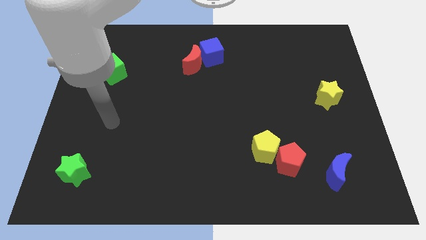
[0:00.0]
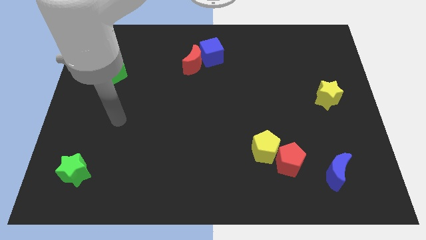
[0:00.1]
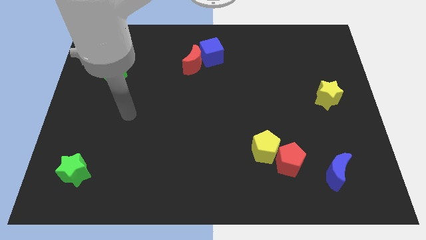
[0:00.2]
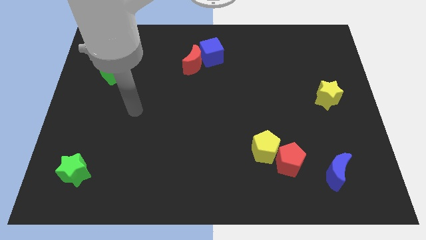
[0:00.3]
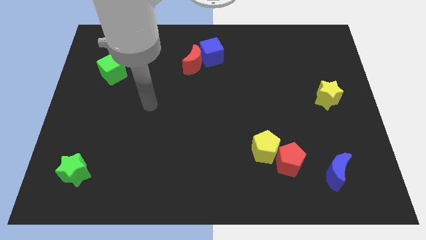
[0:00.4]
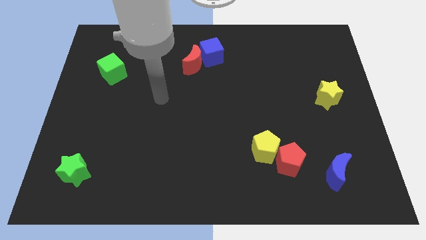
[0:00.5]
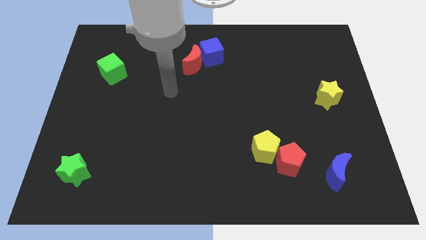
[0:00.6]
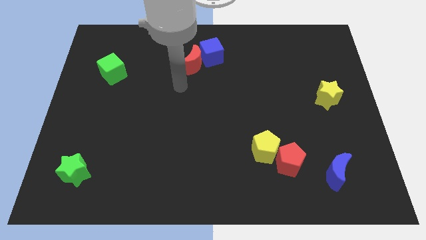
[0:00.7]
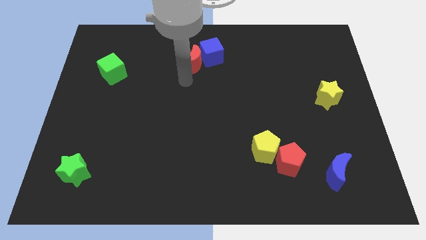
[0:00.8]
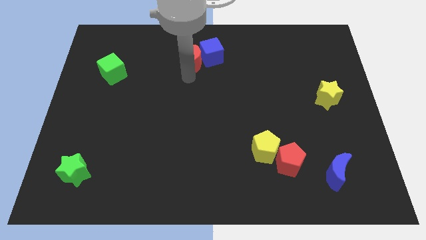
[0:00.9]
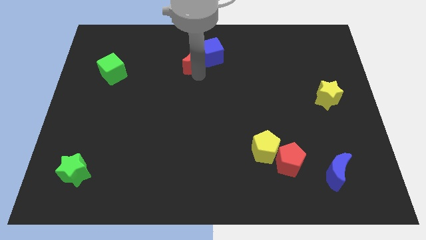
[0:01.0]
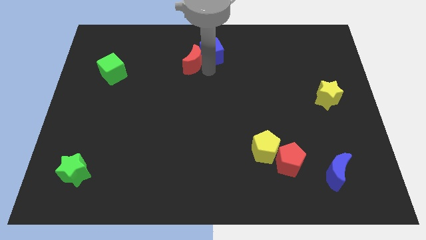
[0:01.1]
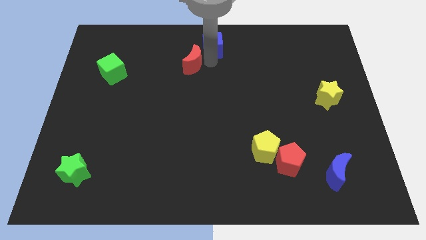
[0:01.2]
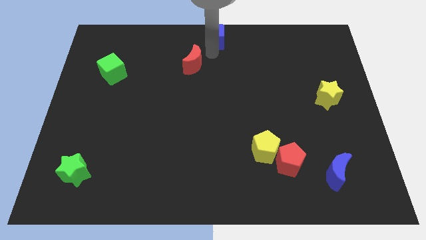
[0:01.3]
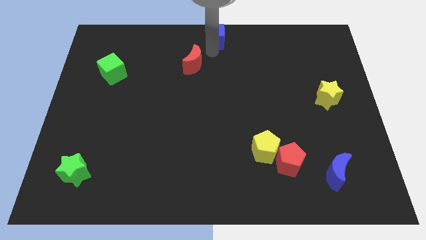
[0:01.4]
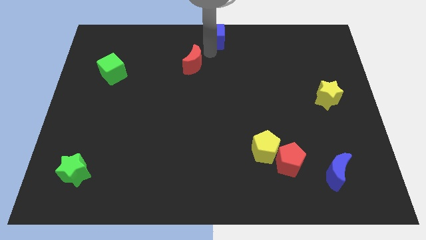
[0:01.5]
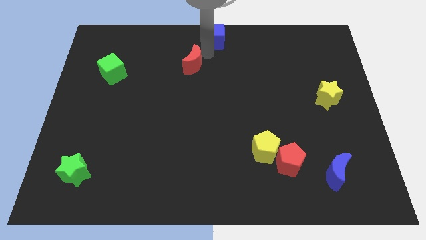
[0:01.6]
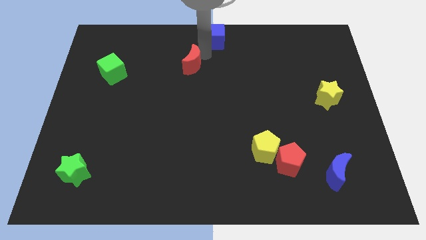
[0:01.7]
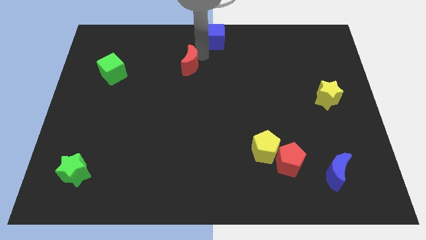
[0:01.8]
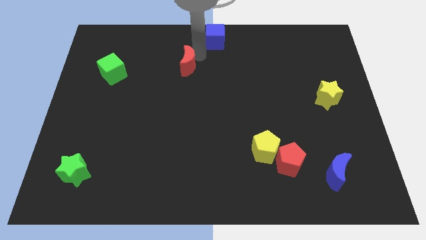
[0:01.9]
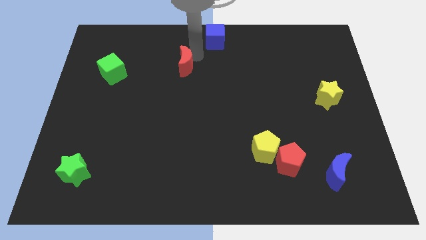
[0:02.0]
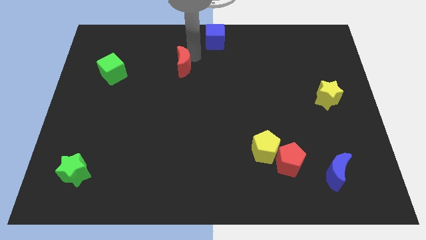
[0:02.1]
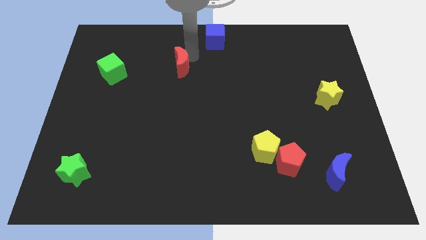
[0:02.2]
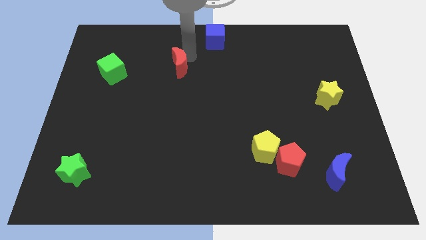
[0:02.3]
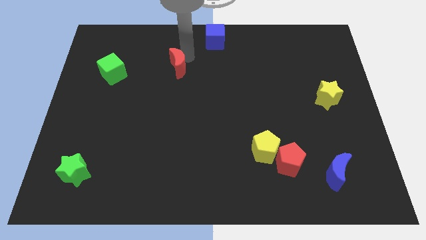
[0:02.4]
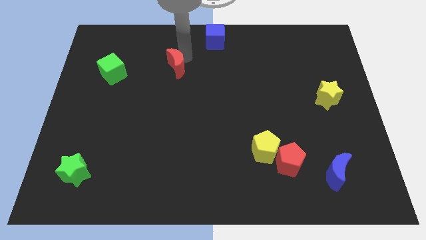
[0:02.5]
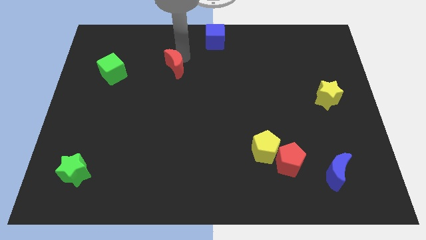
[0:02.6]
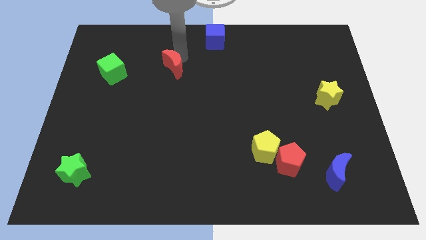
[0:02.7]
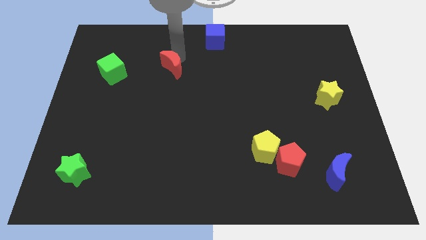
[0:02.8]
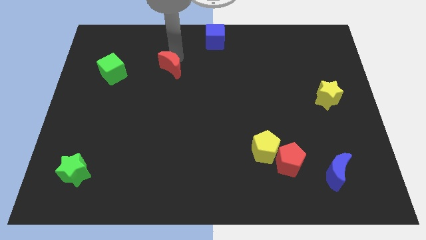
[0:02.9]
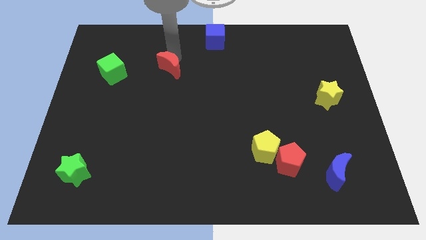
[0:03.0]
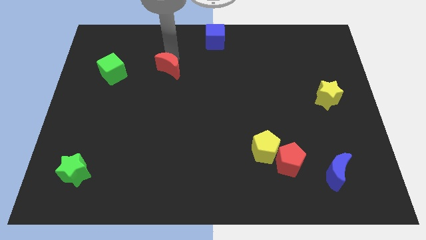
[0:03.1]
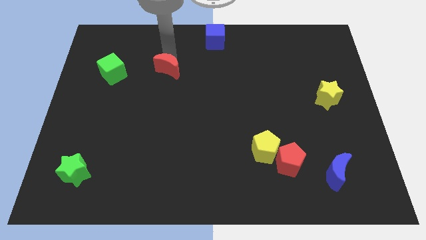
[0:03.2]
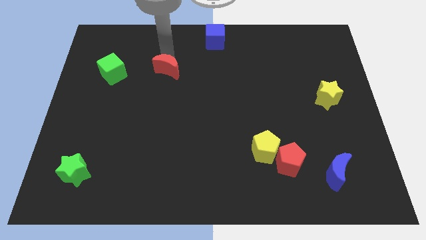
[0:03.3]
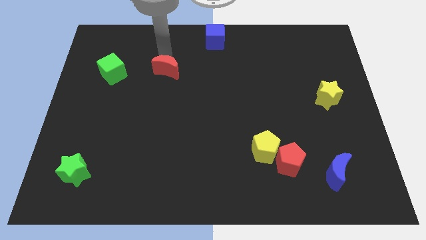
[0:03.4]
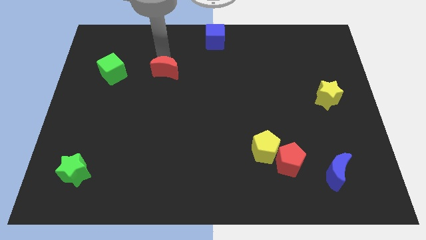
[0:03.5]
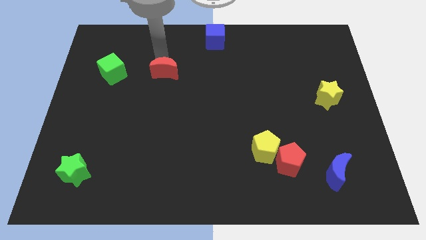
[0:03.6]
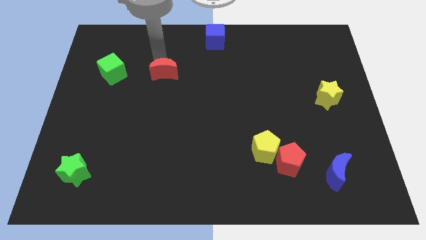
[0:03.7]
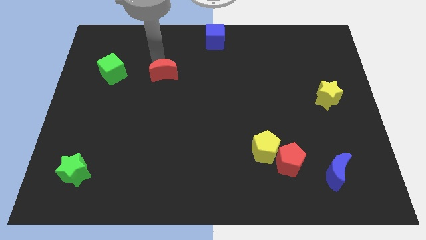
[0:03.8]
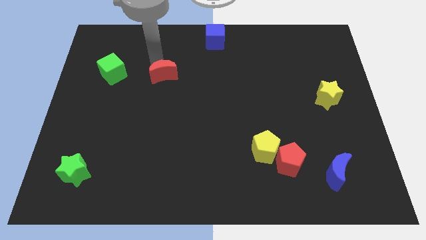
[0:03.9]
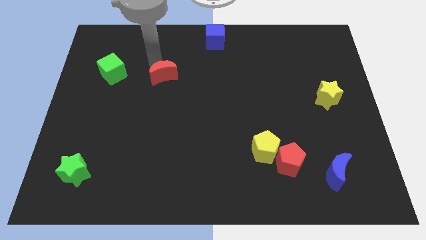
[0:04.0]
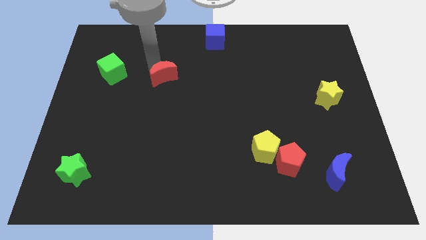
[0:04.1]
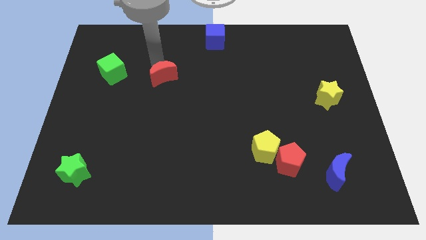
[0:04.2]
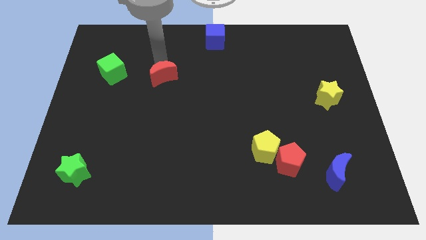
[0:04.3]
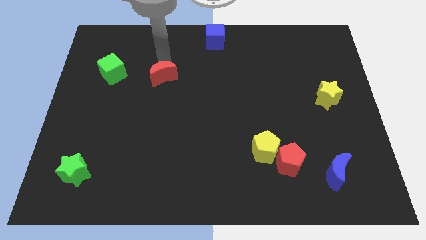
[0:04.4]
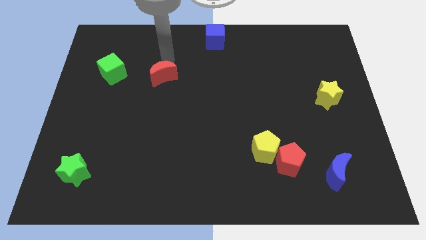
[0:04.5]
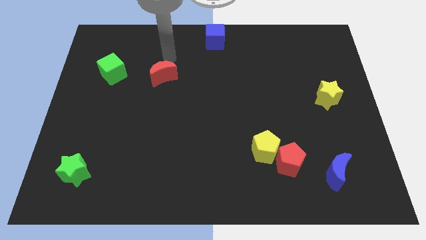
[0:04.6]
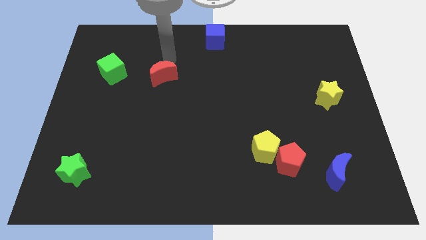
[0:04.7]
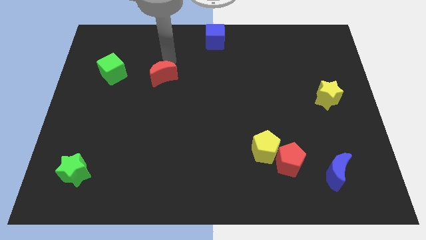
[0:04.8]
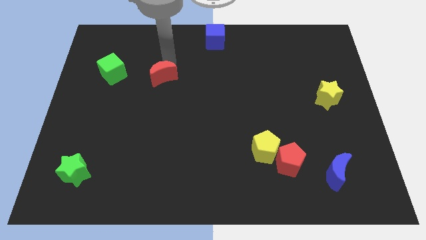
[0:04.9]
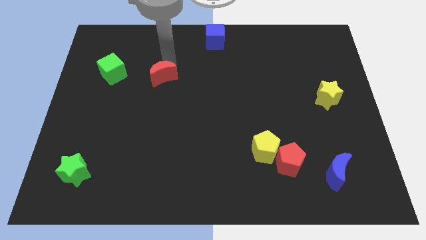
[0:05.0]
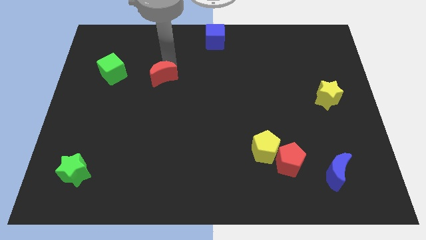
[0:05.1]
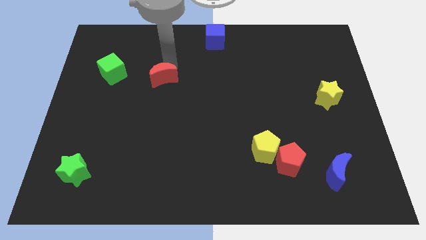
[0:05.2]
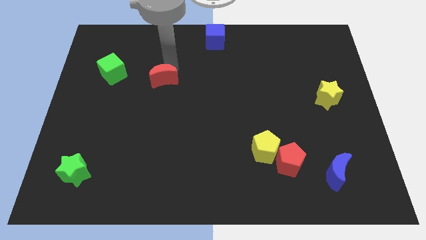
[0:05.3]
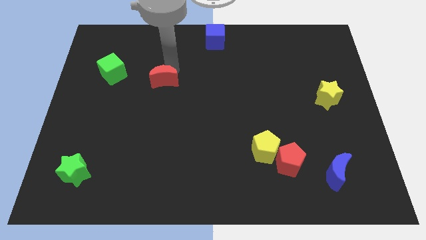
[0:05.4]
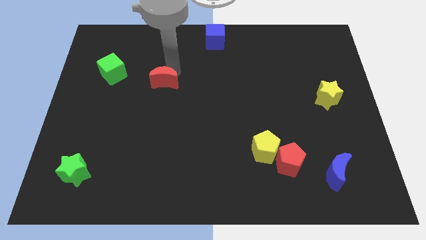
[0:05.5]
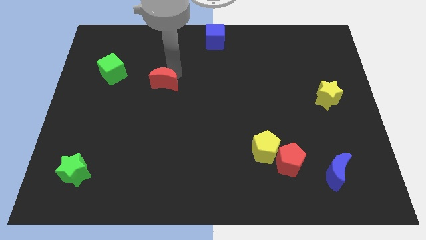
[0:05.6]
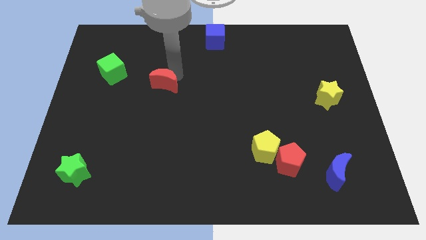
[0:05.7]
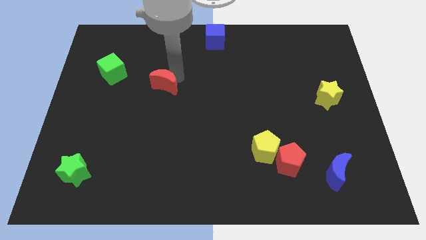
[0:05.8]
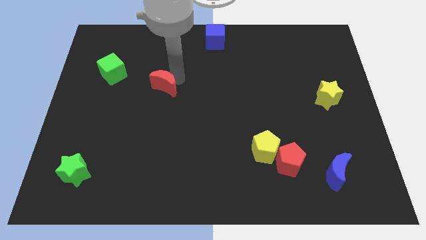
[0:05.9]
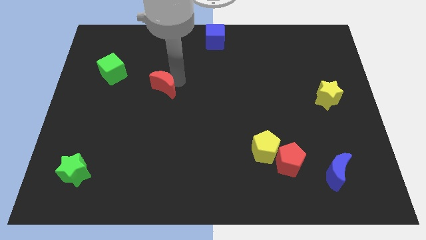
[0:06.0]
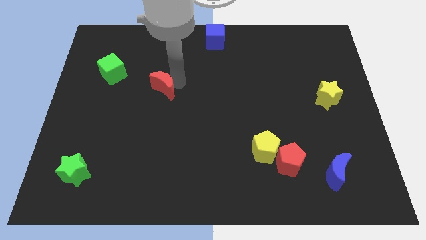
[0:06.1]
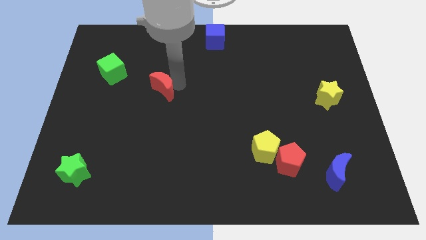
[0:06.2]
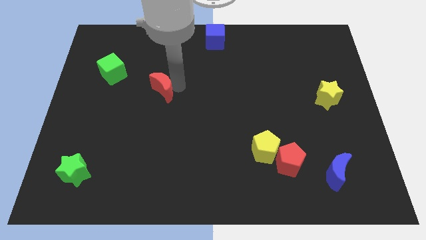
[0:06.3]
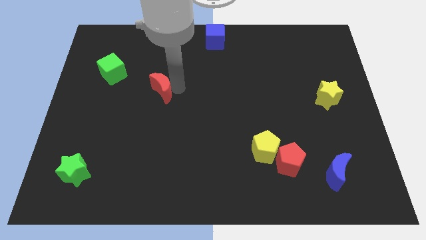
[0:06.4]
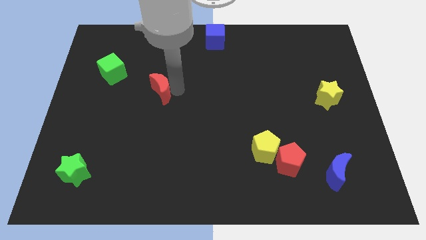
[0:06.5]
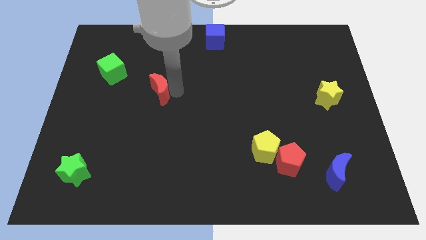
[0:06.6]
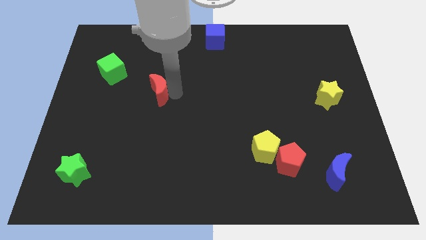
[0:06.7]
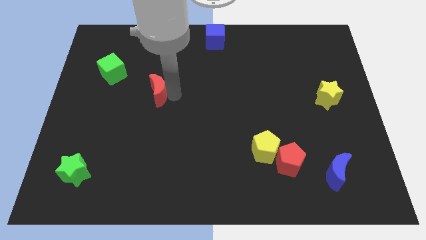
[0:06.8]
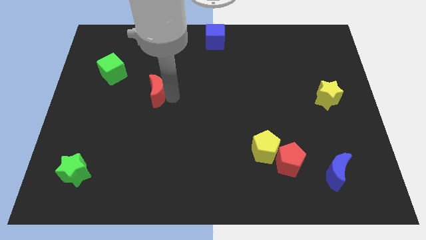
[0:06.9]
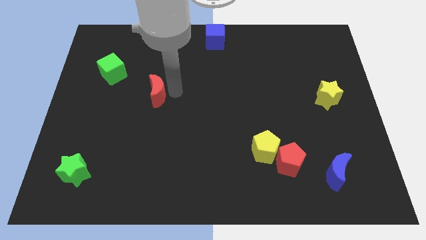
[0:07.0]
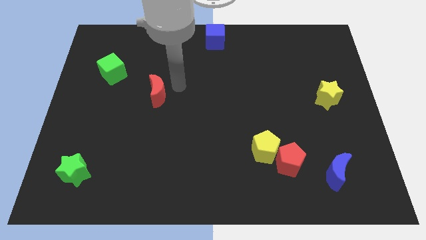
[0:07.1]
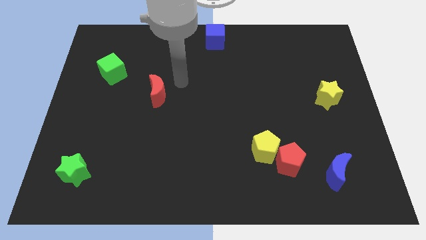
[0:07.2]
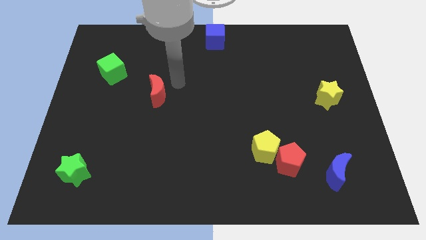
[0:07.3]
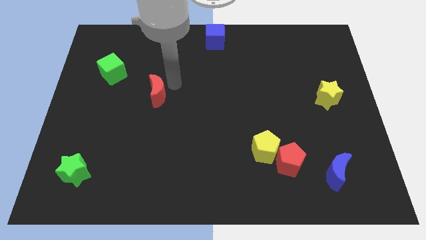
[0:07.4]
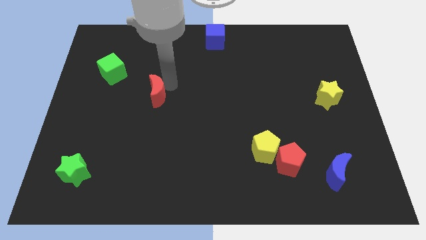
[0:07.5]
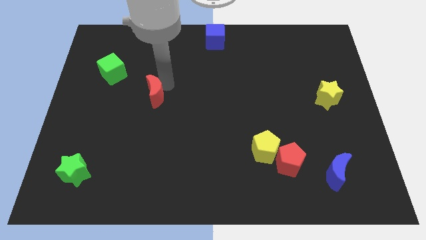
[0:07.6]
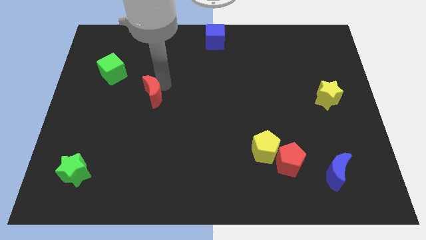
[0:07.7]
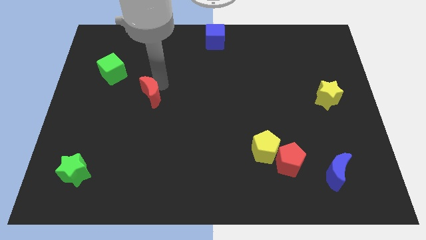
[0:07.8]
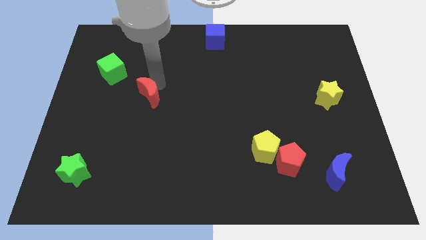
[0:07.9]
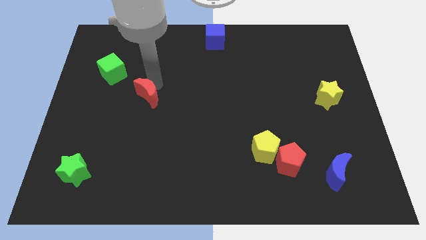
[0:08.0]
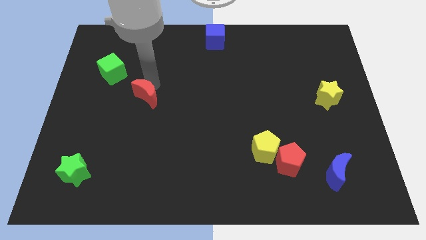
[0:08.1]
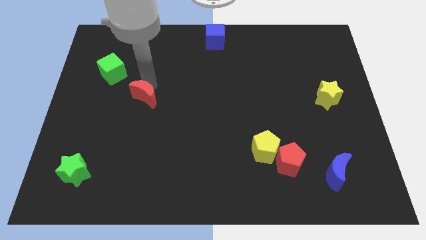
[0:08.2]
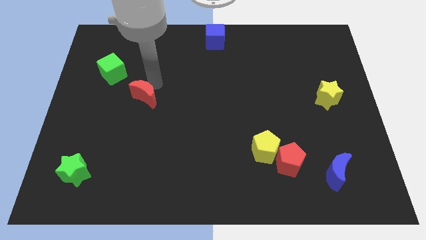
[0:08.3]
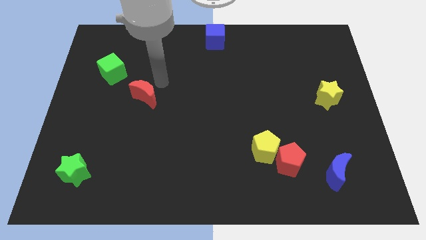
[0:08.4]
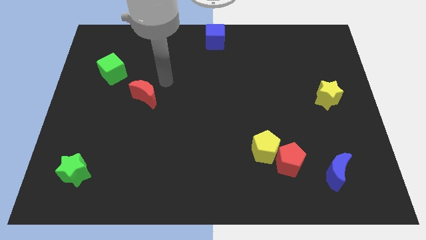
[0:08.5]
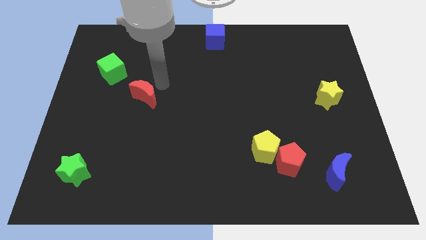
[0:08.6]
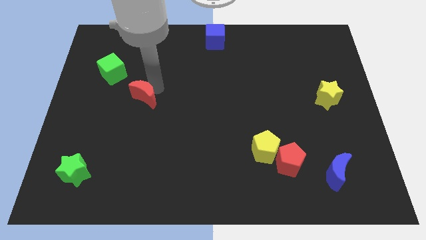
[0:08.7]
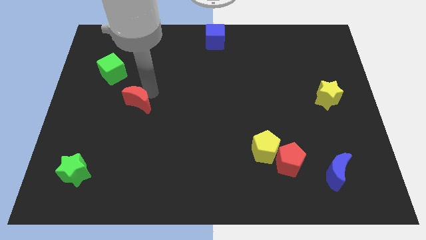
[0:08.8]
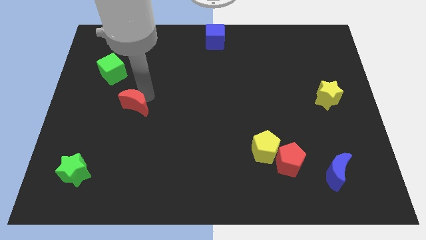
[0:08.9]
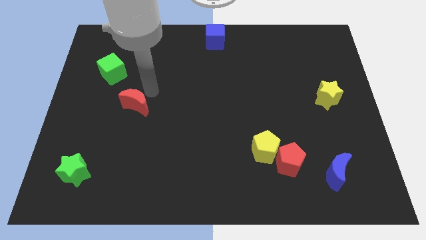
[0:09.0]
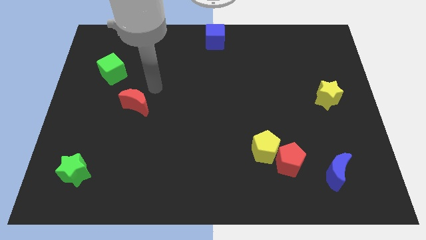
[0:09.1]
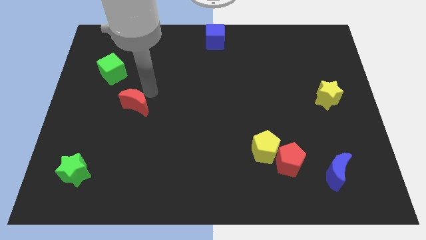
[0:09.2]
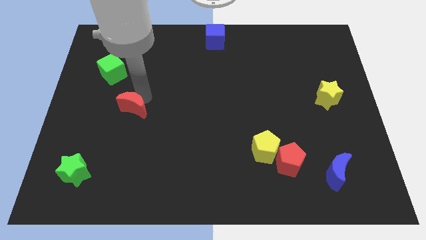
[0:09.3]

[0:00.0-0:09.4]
slide the red moon diagonally downwards and to the left
